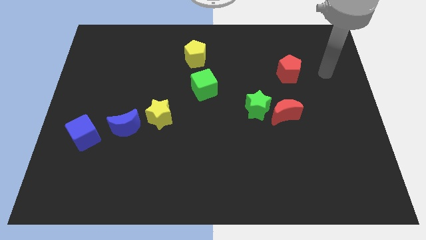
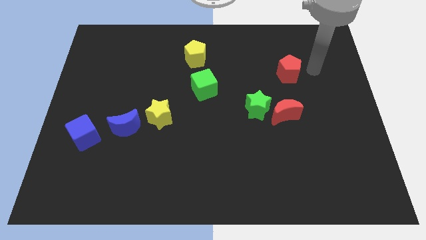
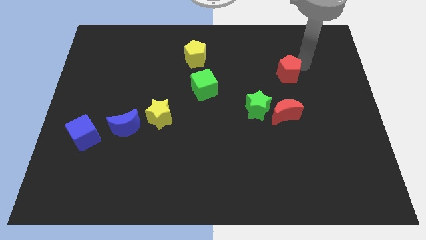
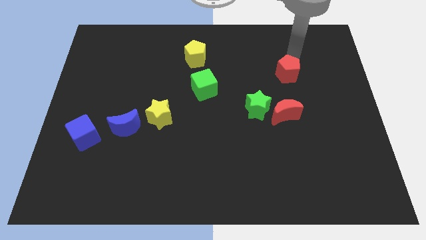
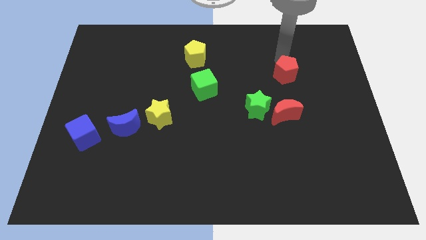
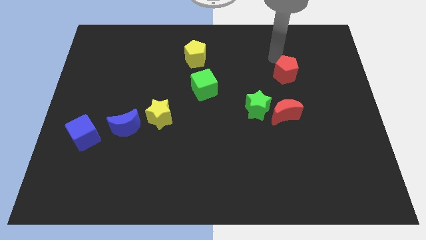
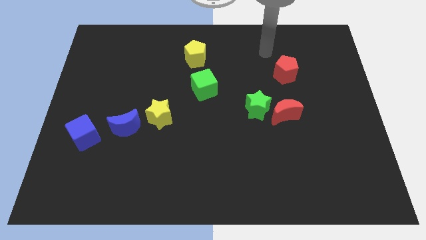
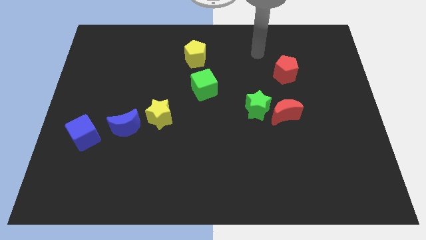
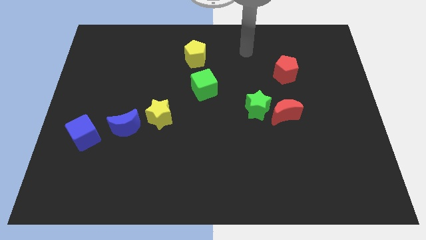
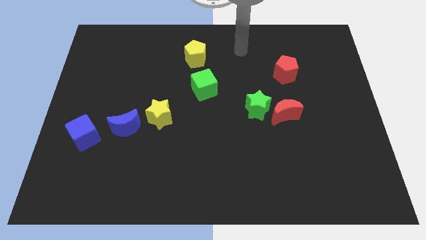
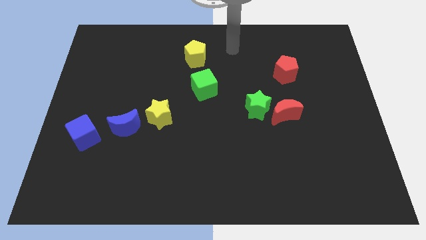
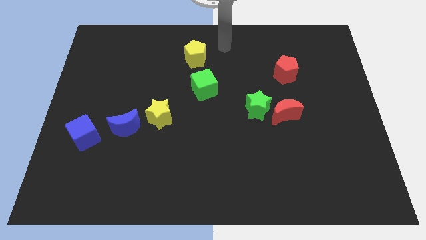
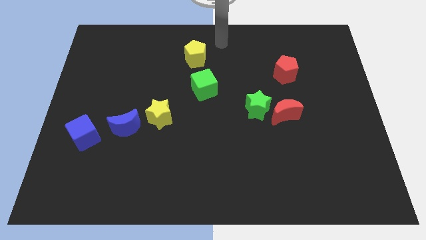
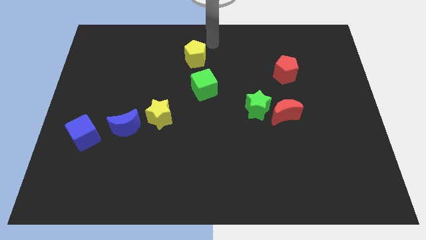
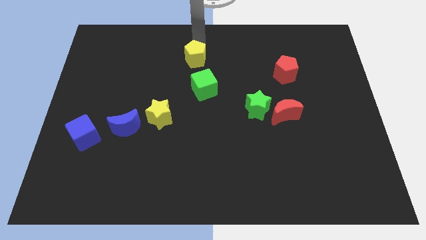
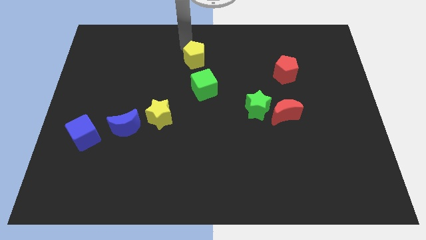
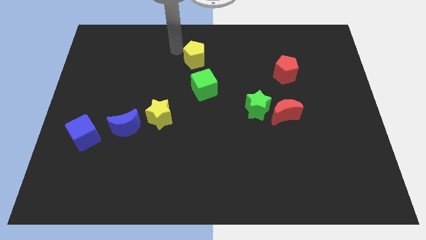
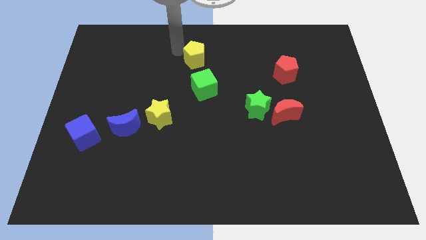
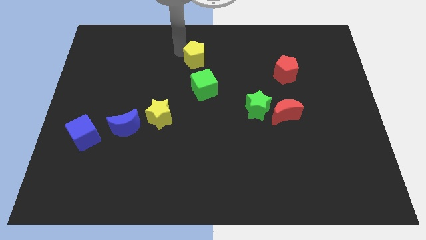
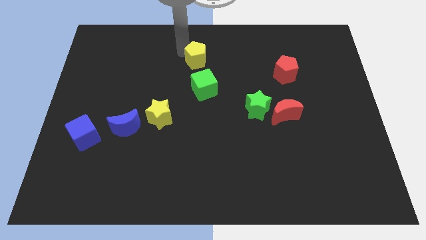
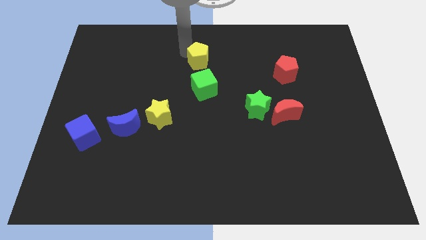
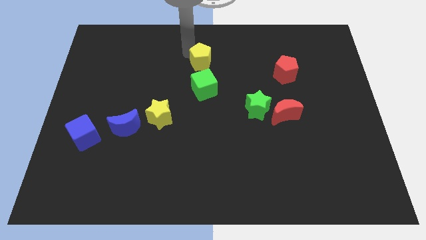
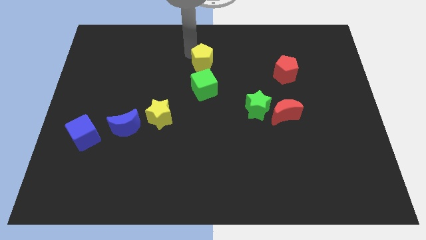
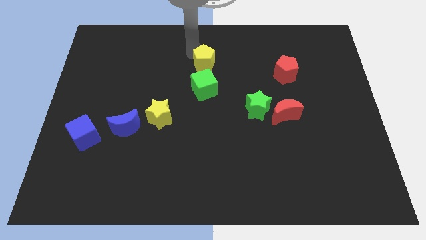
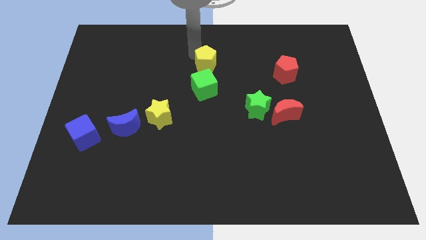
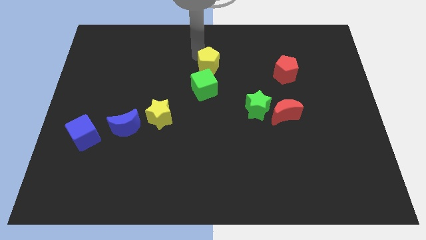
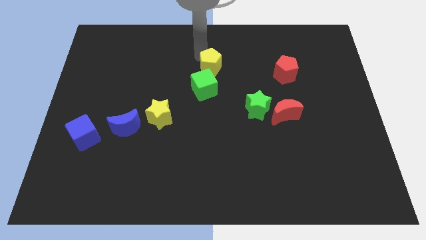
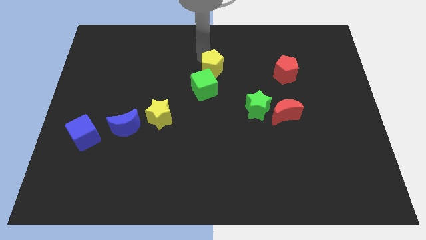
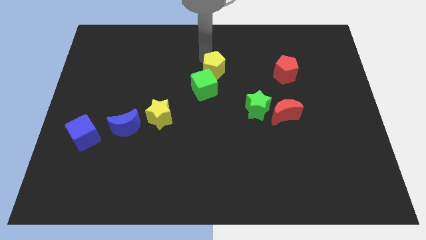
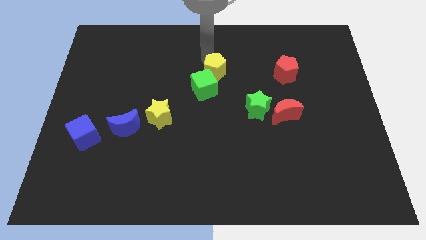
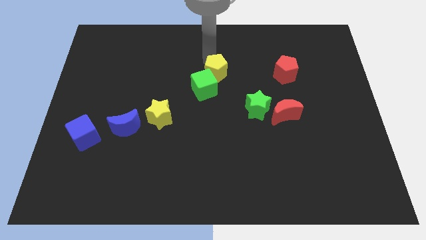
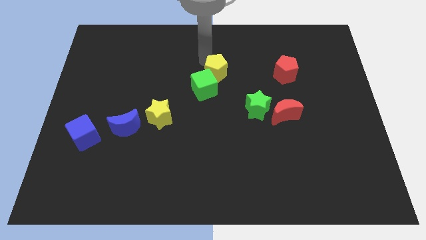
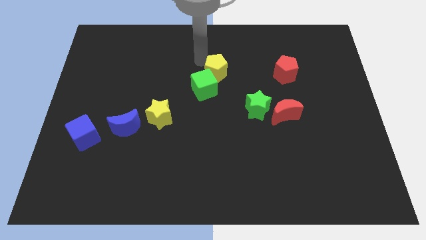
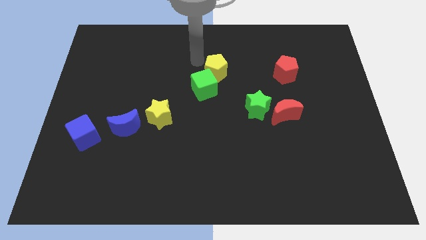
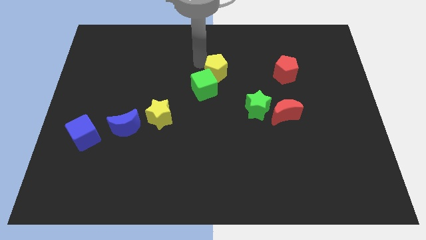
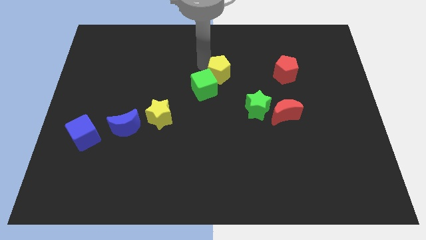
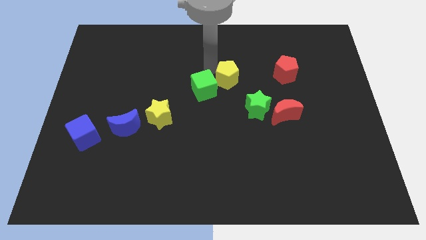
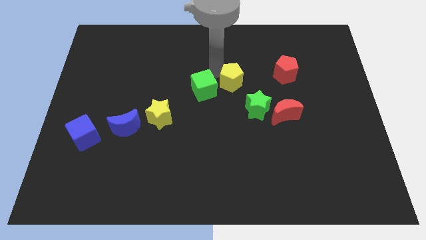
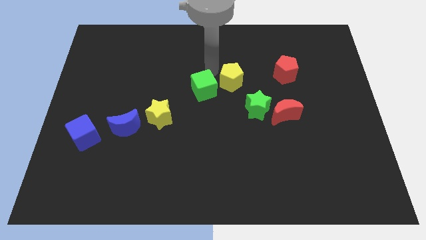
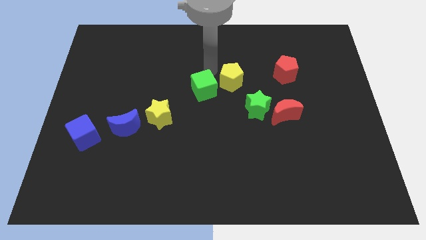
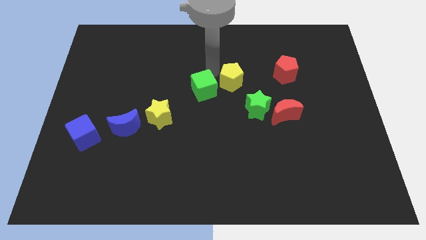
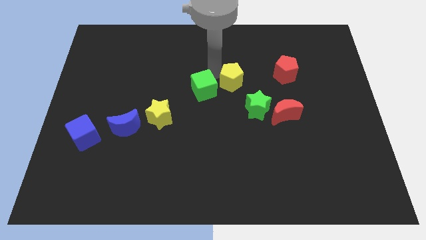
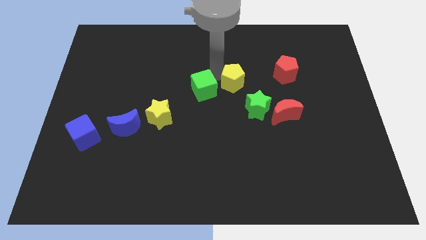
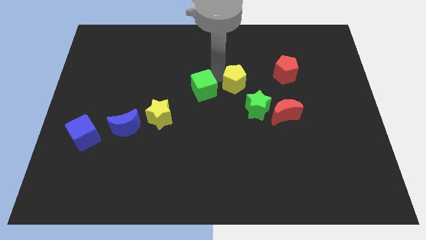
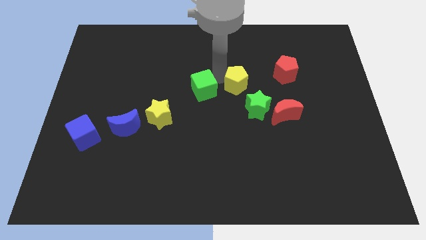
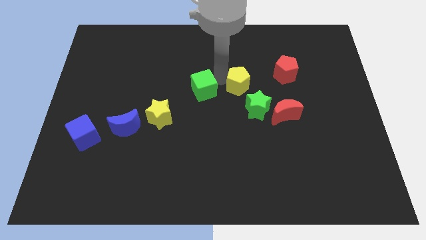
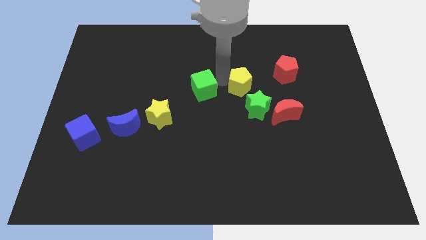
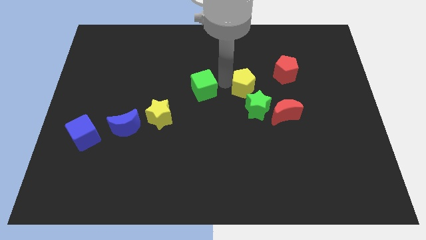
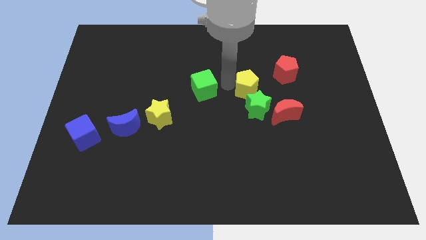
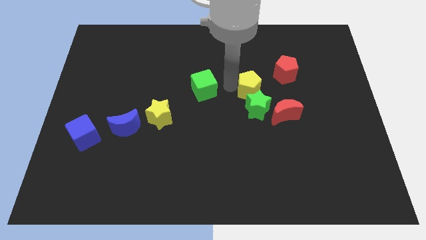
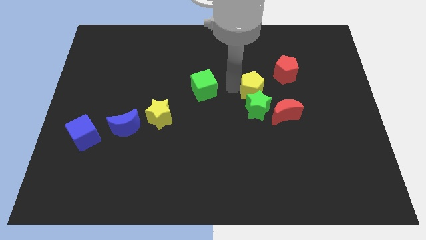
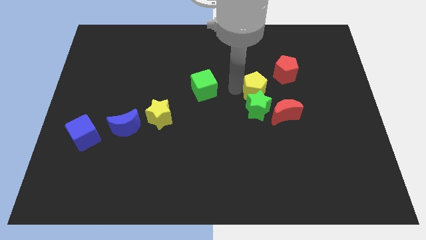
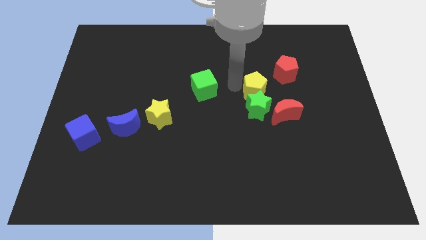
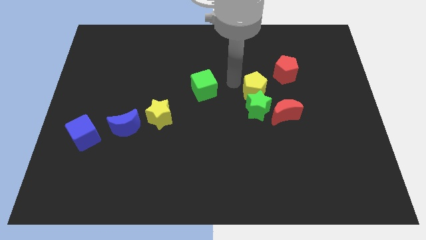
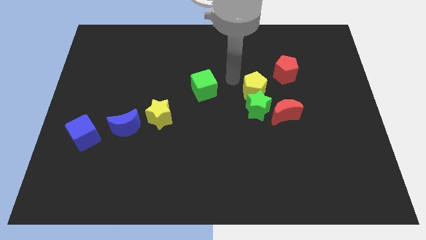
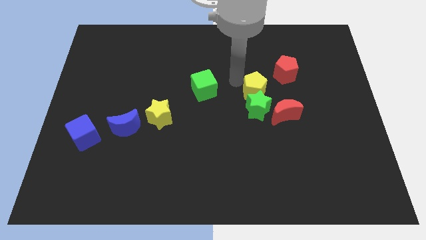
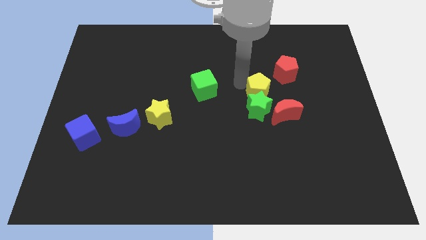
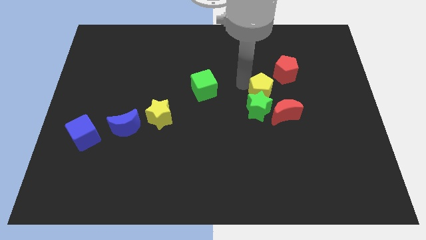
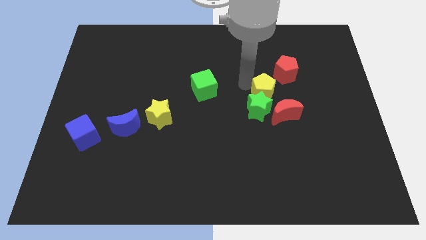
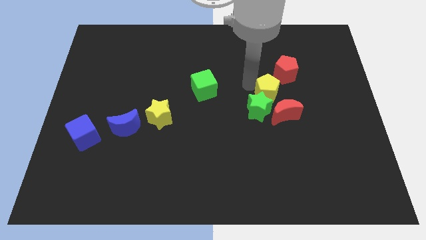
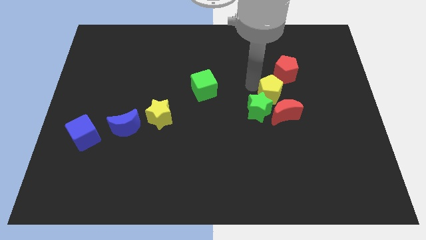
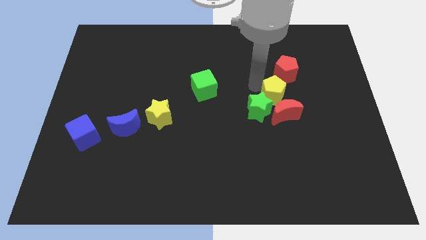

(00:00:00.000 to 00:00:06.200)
slide the yellow pentagon next to the red moon

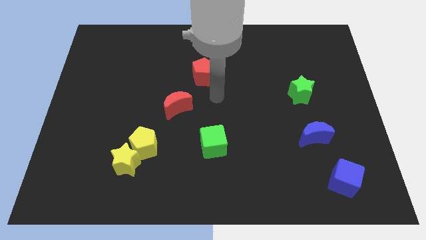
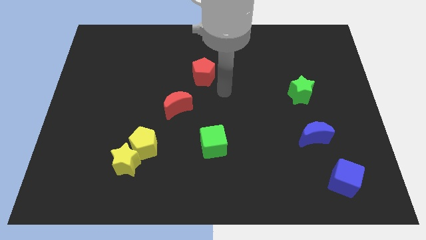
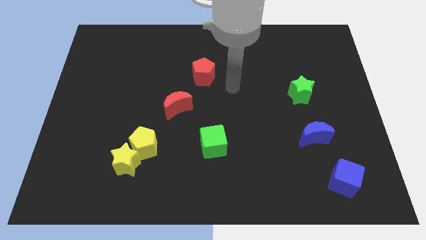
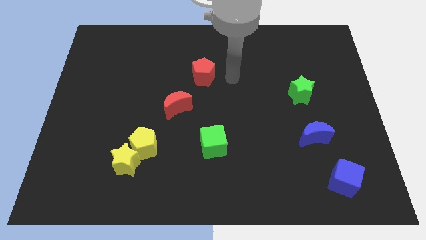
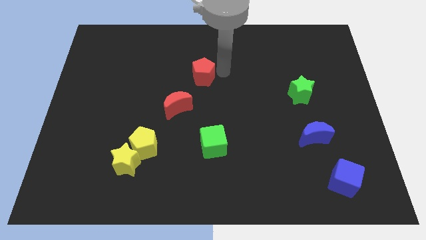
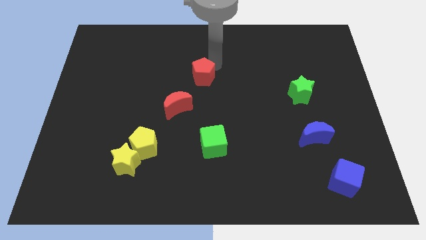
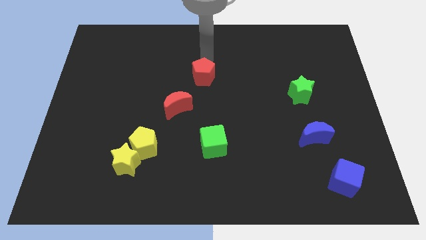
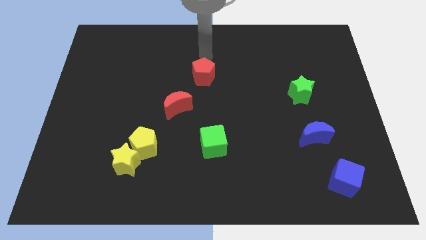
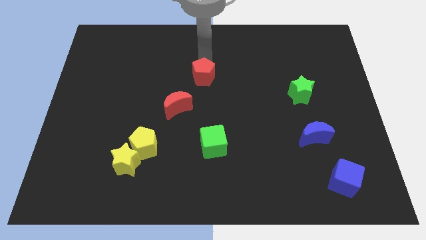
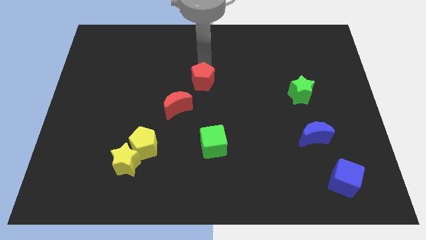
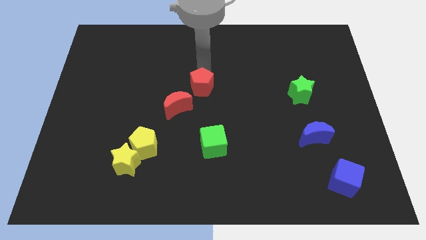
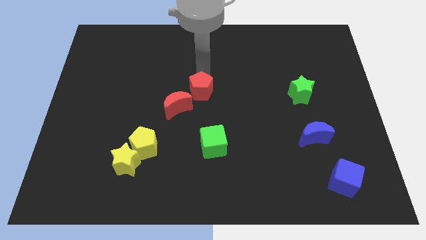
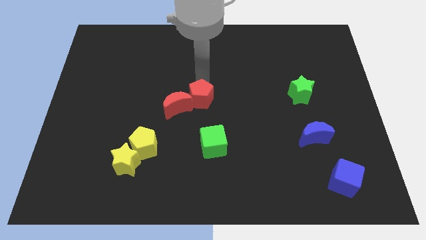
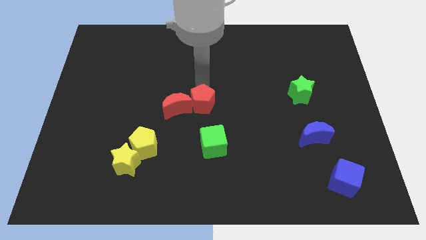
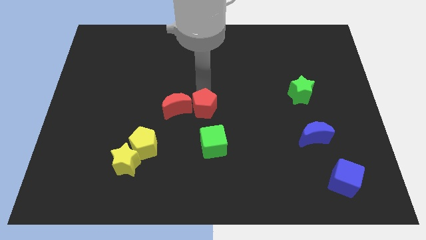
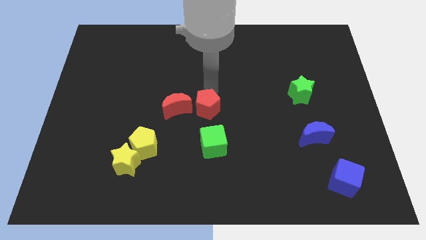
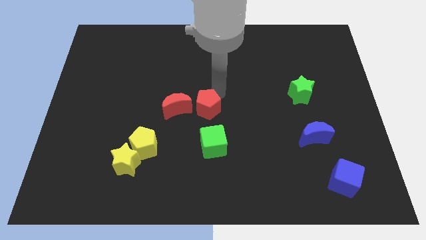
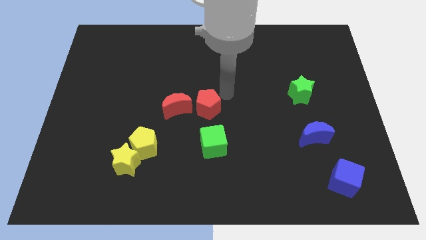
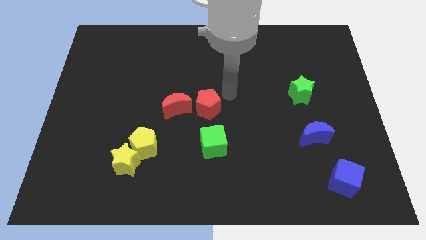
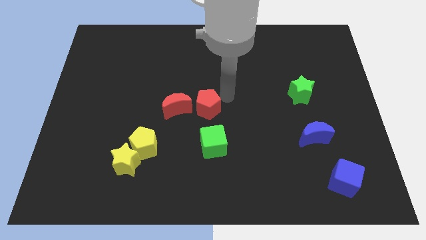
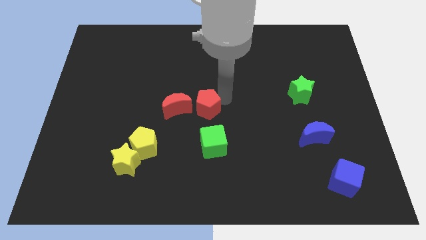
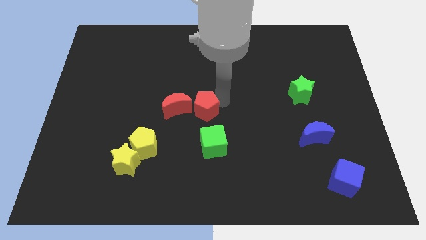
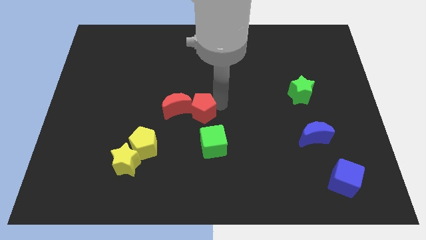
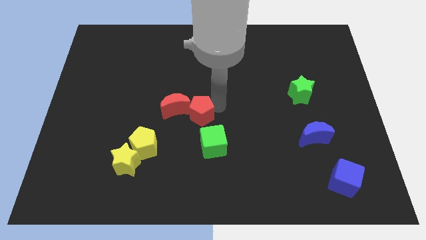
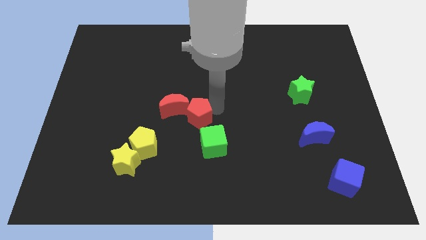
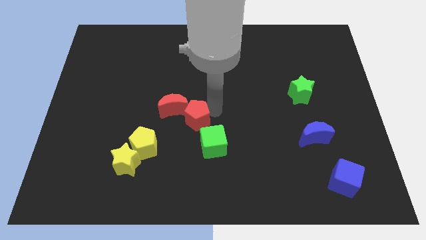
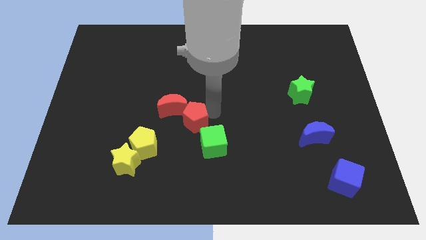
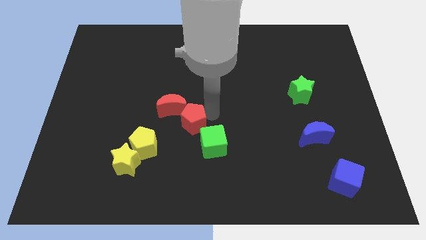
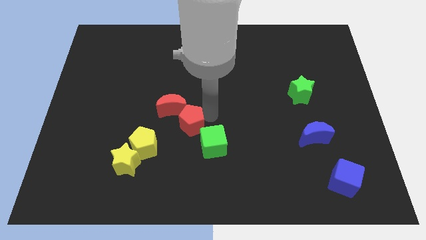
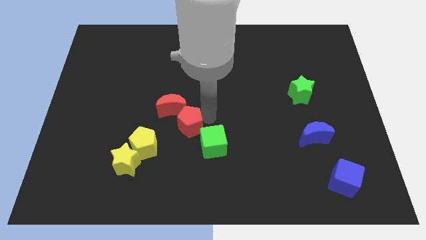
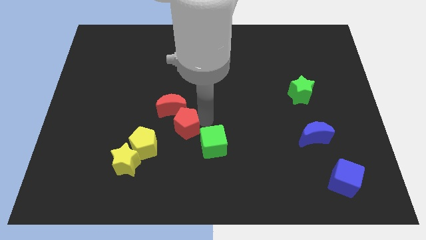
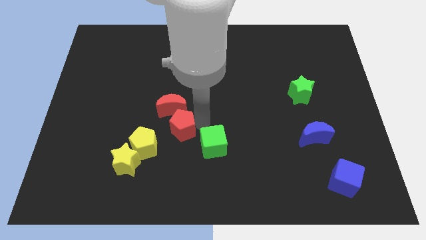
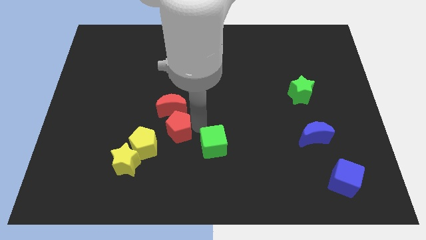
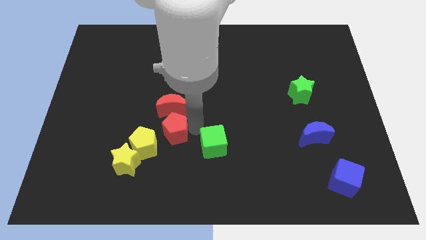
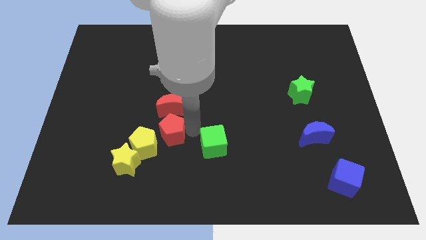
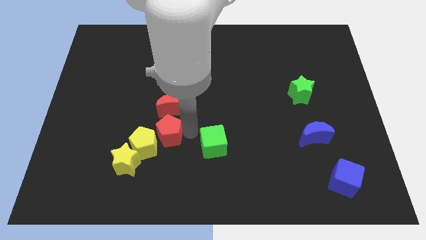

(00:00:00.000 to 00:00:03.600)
put the red pentagon next to the yellow pentagon
